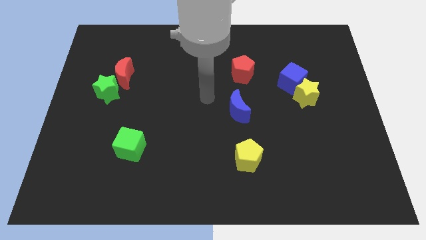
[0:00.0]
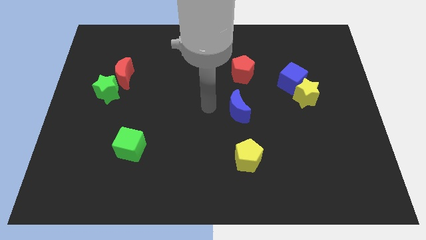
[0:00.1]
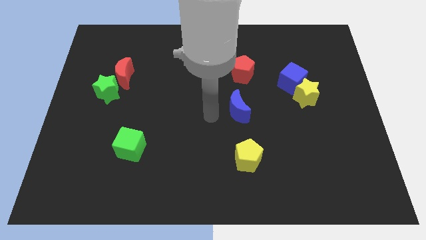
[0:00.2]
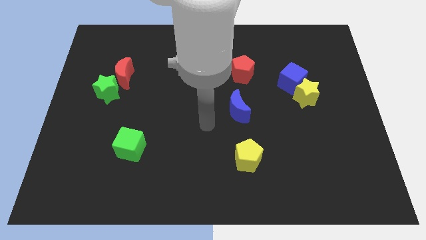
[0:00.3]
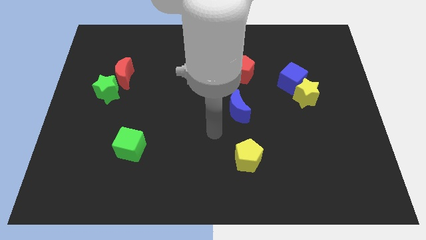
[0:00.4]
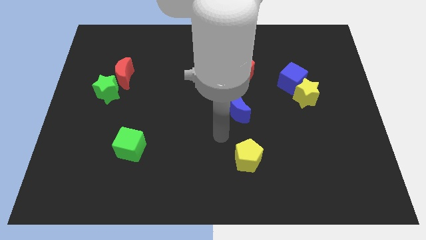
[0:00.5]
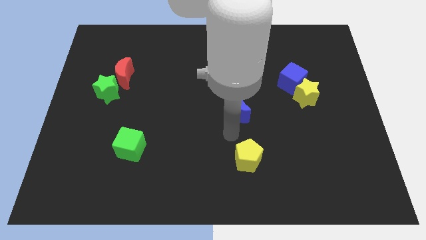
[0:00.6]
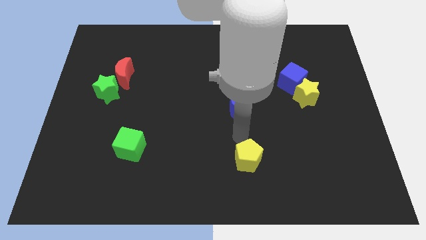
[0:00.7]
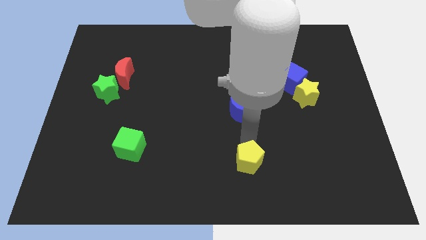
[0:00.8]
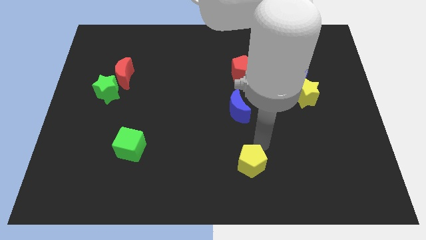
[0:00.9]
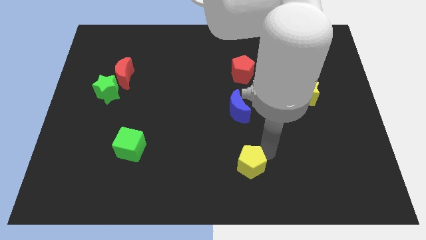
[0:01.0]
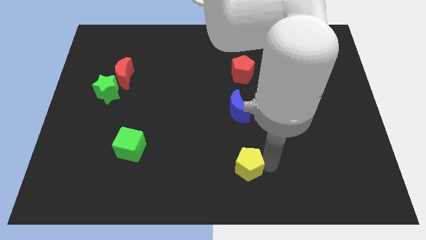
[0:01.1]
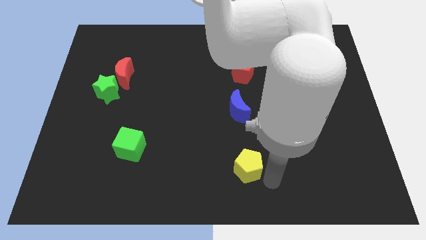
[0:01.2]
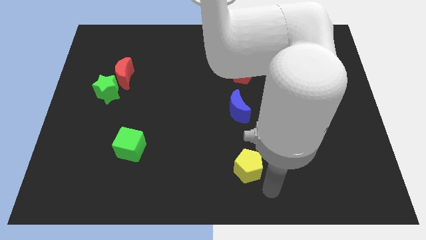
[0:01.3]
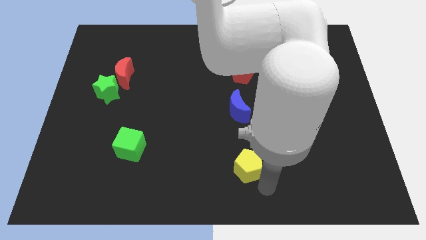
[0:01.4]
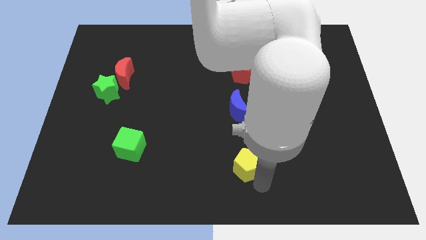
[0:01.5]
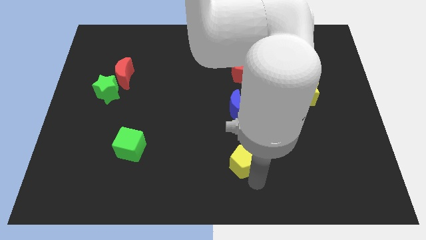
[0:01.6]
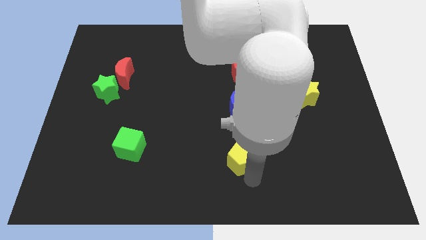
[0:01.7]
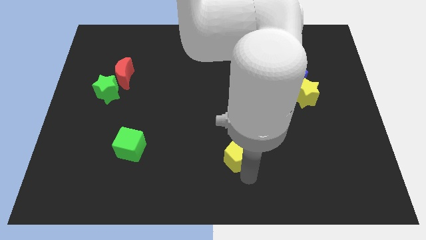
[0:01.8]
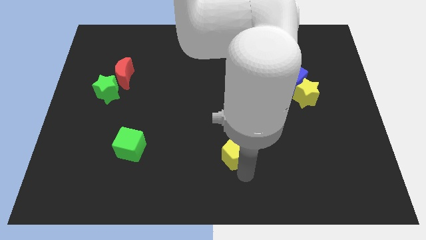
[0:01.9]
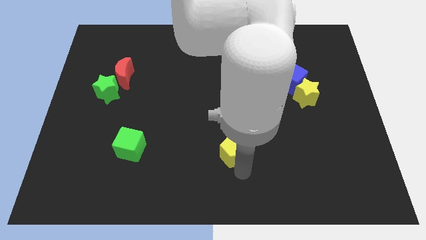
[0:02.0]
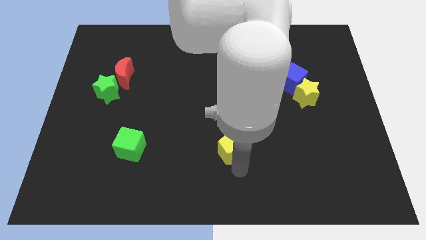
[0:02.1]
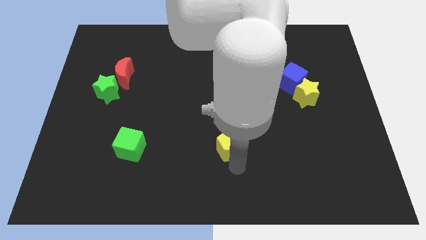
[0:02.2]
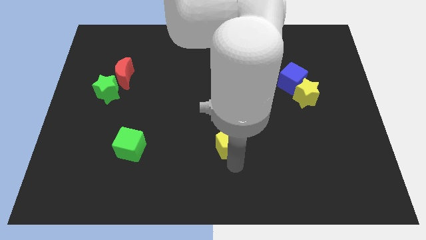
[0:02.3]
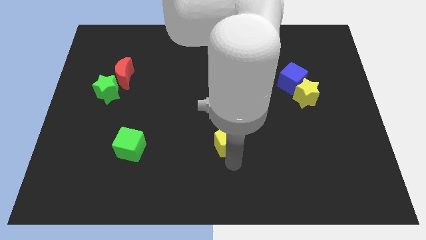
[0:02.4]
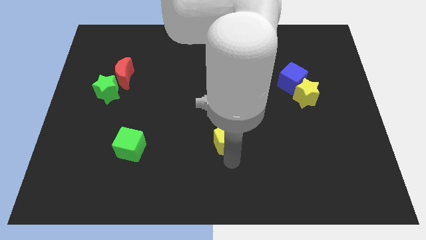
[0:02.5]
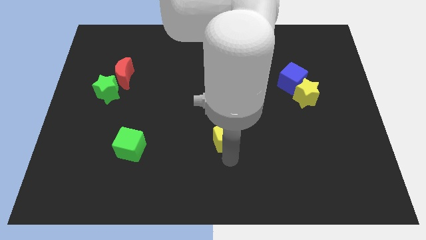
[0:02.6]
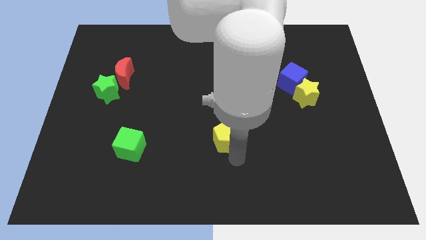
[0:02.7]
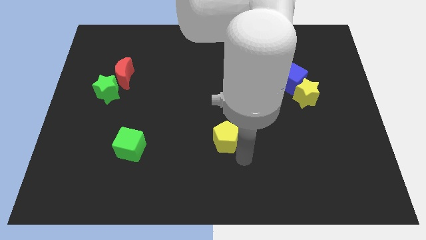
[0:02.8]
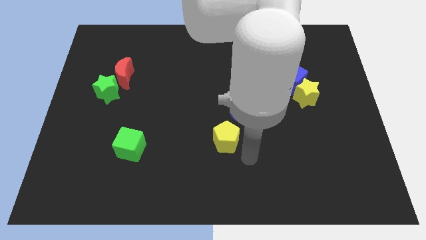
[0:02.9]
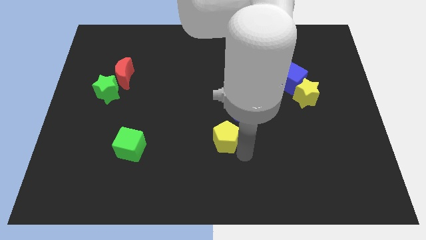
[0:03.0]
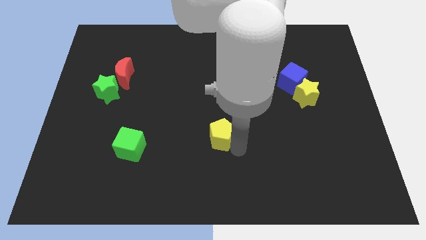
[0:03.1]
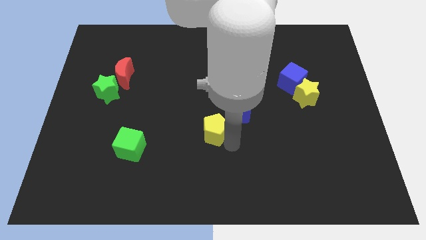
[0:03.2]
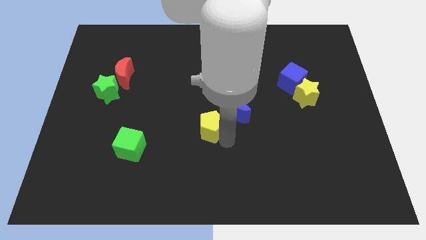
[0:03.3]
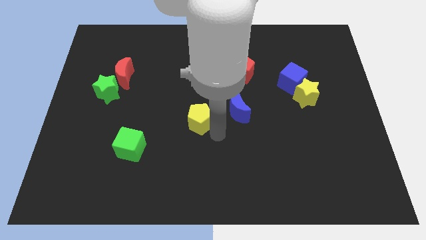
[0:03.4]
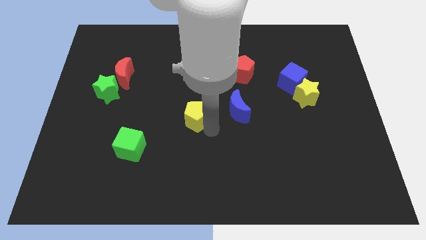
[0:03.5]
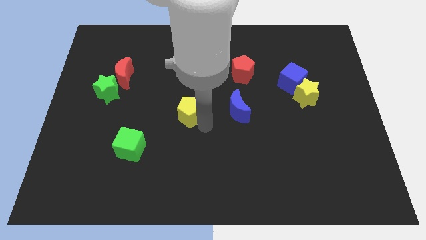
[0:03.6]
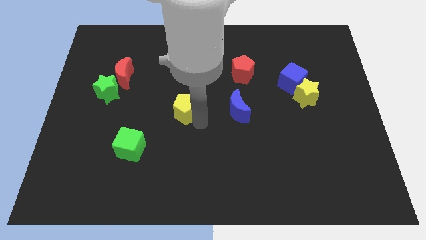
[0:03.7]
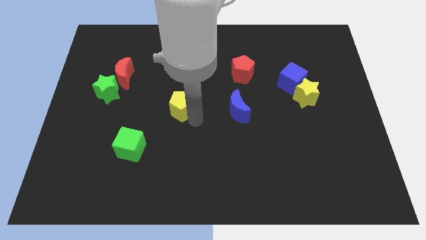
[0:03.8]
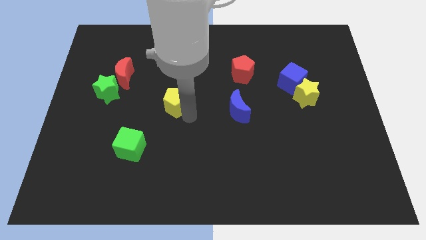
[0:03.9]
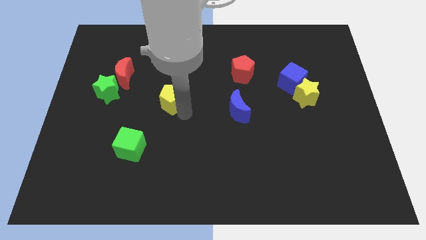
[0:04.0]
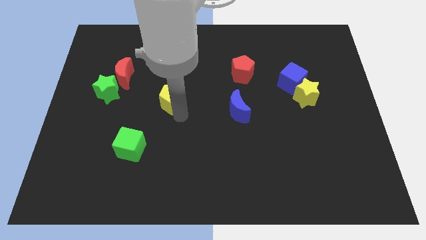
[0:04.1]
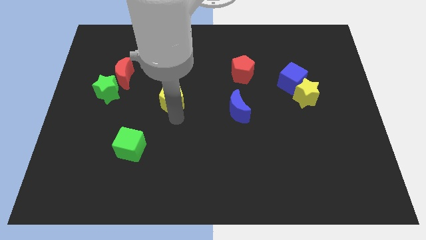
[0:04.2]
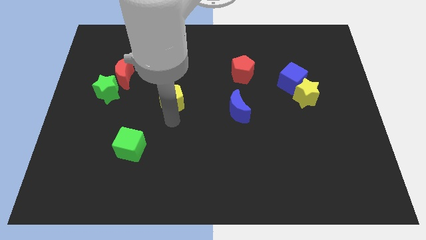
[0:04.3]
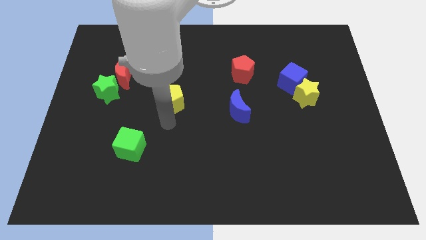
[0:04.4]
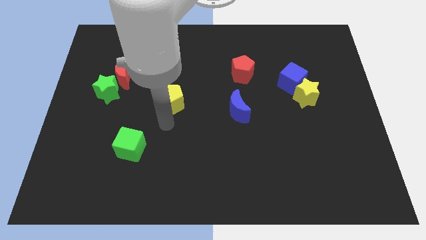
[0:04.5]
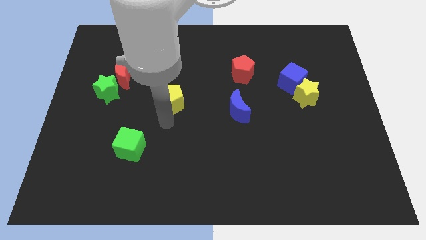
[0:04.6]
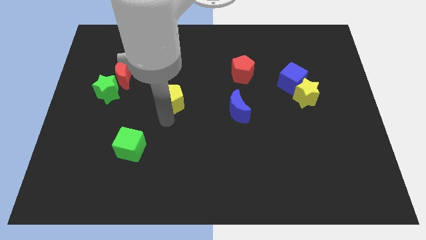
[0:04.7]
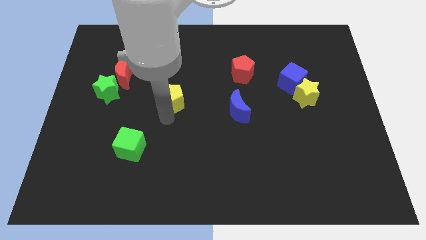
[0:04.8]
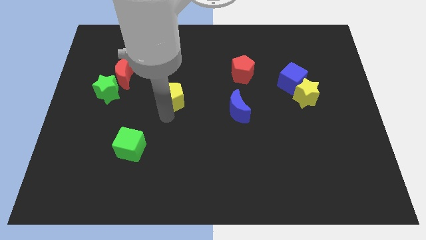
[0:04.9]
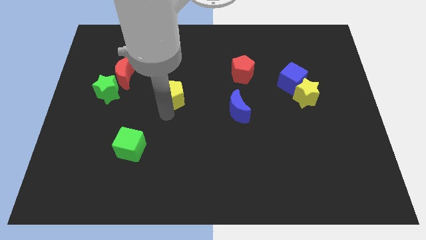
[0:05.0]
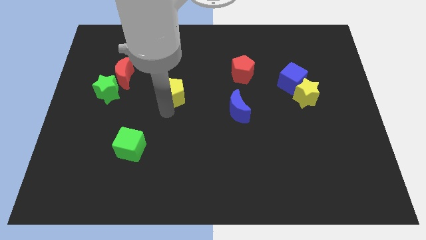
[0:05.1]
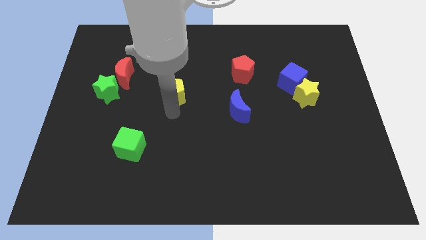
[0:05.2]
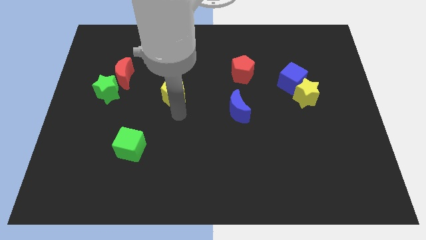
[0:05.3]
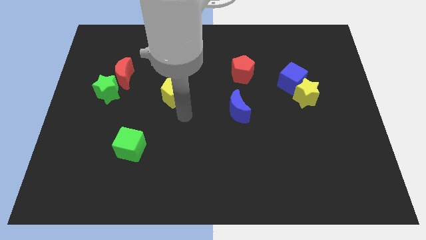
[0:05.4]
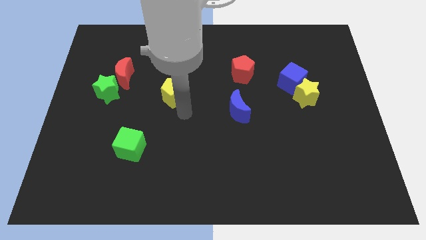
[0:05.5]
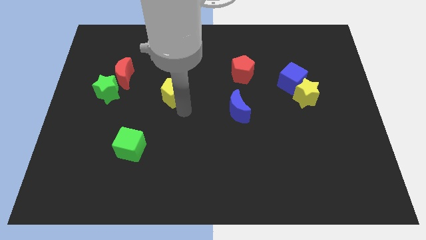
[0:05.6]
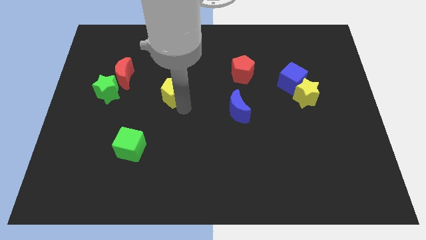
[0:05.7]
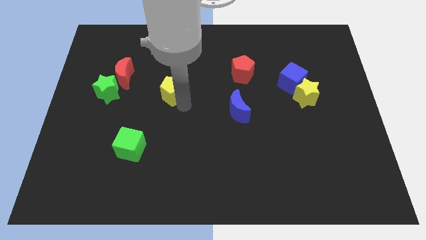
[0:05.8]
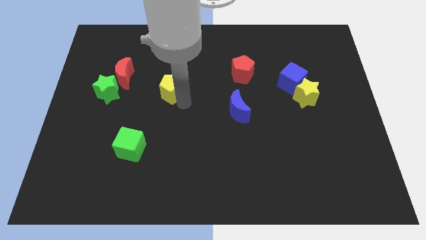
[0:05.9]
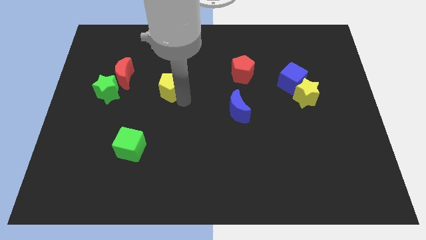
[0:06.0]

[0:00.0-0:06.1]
slide the yellow pentagon to the right side of the red moon

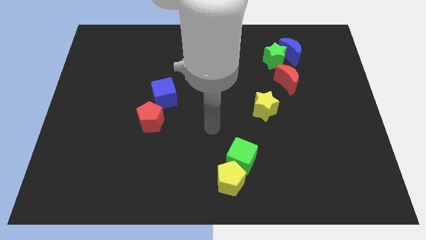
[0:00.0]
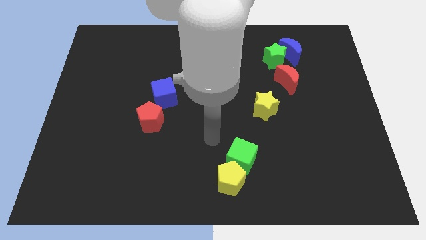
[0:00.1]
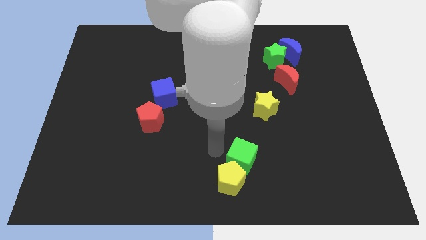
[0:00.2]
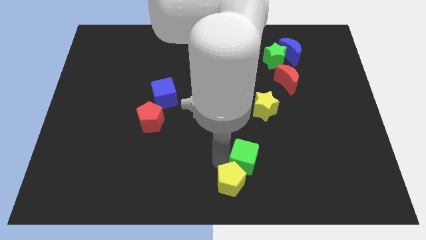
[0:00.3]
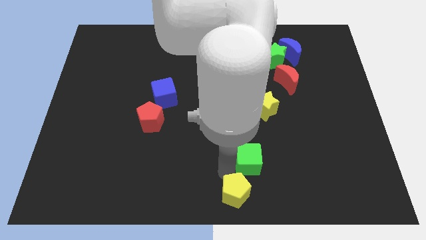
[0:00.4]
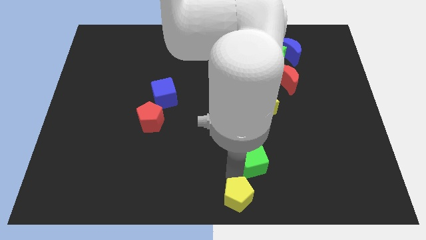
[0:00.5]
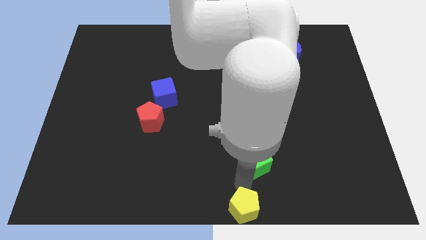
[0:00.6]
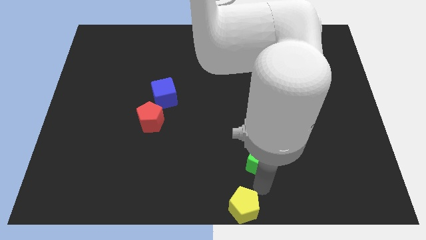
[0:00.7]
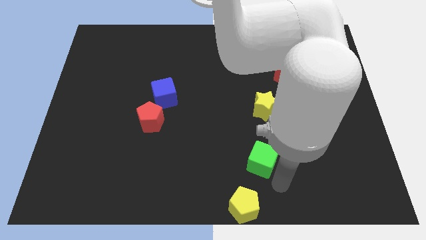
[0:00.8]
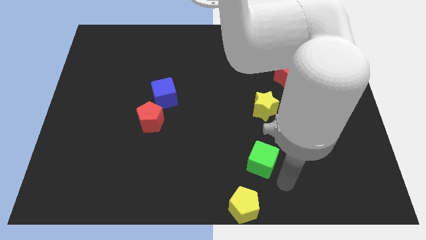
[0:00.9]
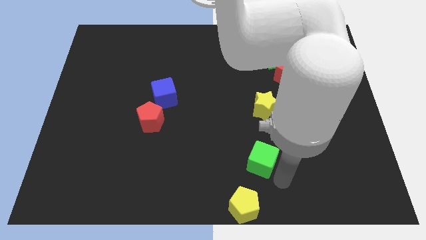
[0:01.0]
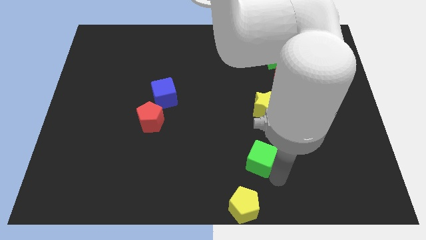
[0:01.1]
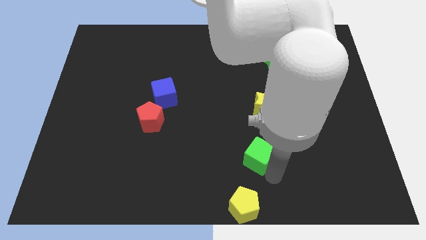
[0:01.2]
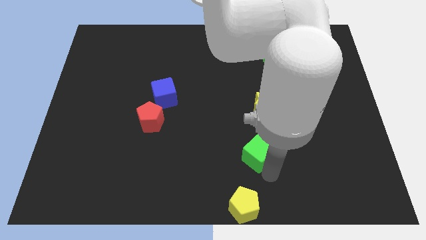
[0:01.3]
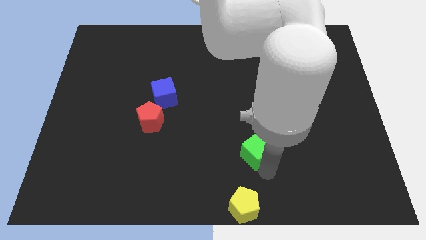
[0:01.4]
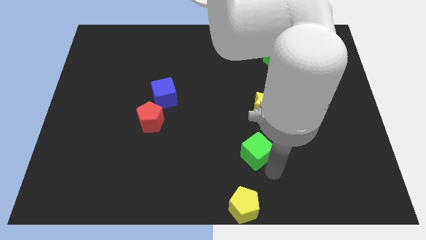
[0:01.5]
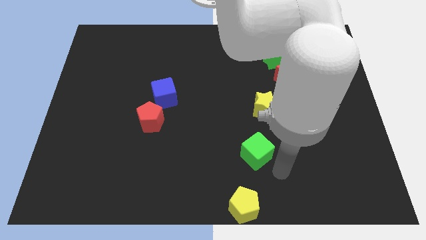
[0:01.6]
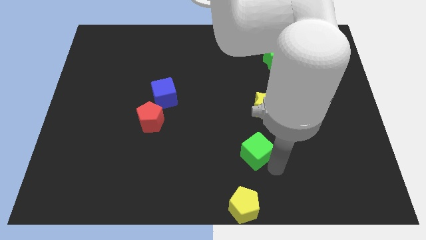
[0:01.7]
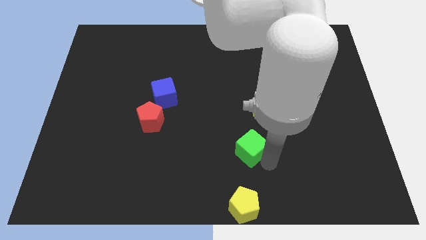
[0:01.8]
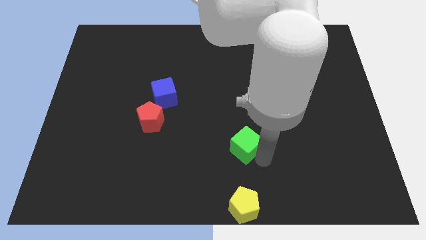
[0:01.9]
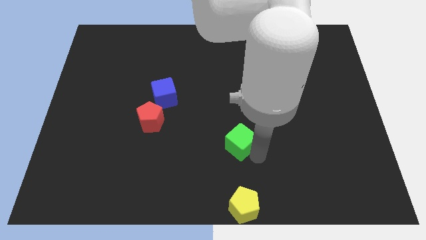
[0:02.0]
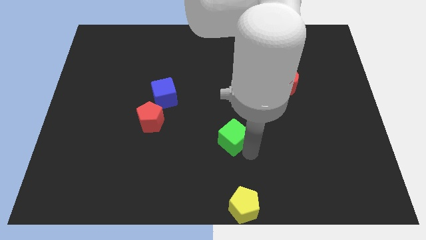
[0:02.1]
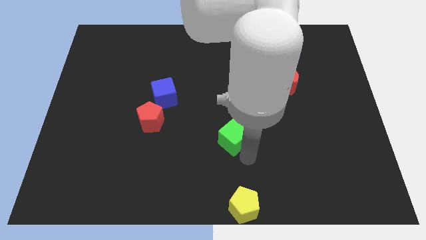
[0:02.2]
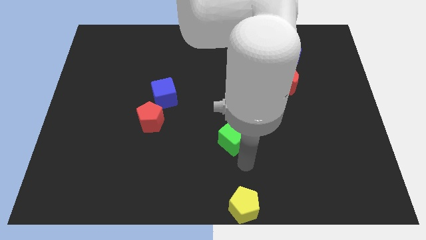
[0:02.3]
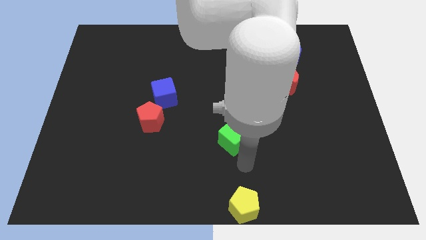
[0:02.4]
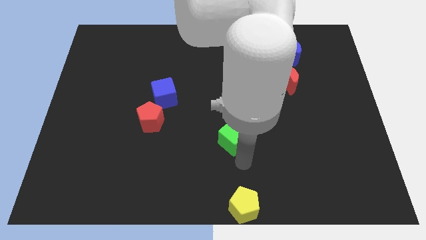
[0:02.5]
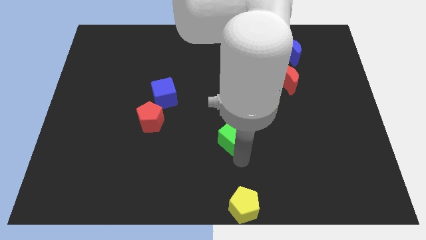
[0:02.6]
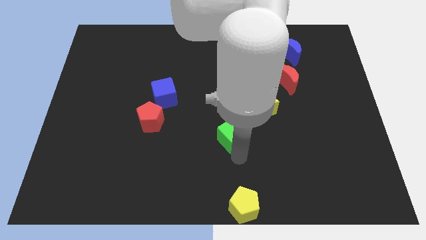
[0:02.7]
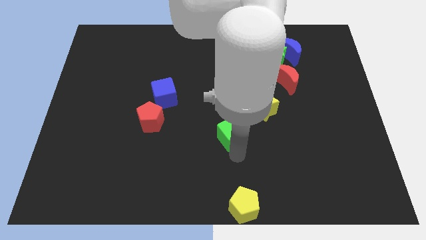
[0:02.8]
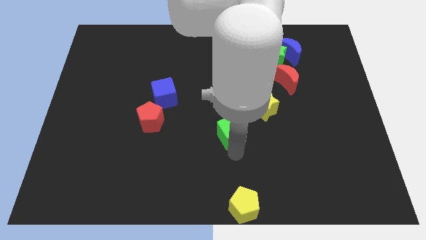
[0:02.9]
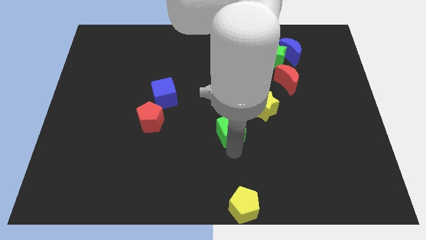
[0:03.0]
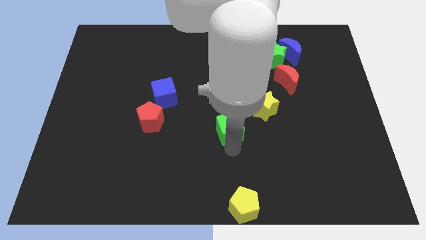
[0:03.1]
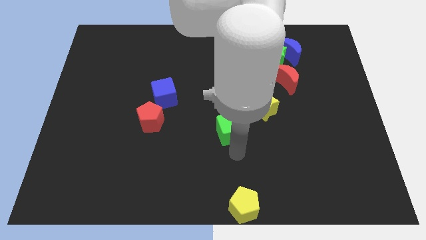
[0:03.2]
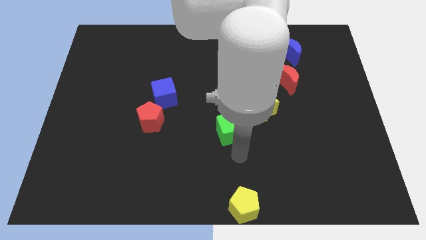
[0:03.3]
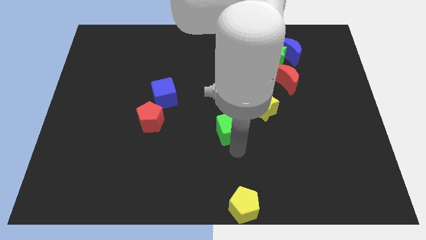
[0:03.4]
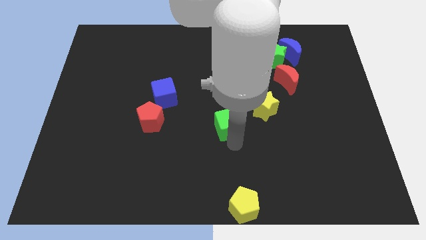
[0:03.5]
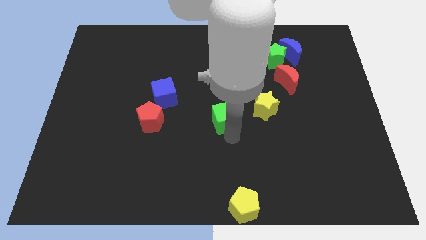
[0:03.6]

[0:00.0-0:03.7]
push the green cube just left of the yellow star
